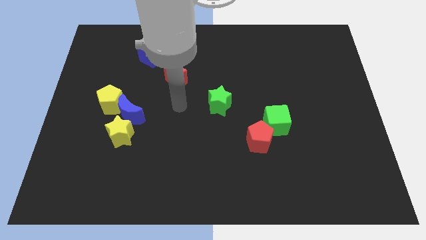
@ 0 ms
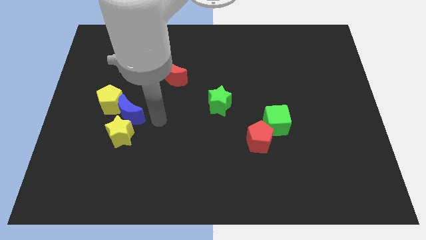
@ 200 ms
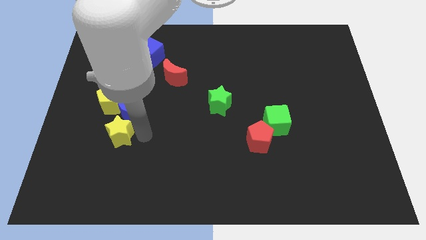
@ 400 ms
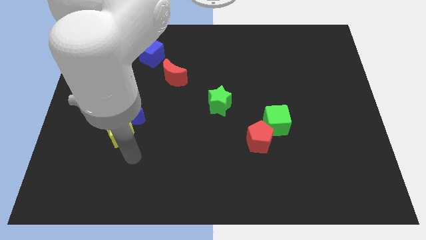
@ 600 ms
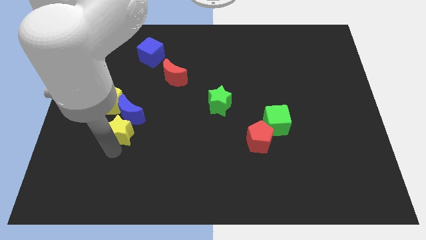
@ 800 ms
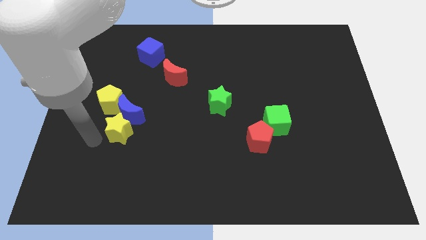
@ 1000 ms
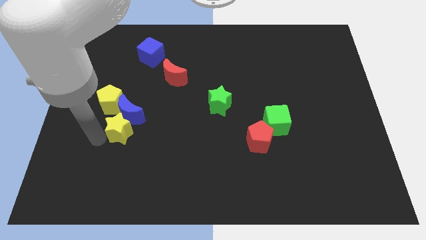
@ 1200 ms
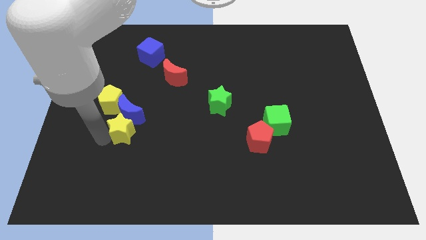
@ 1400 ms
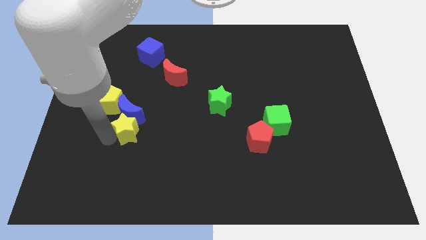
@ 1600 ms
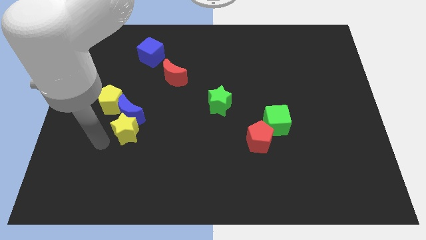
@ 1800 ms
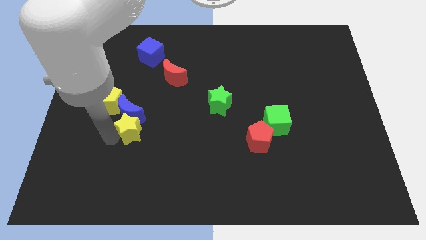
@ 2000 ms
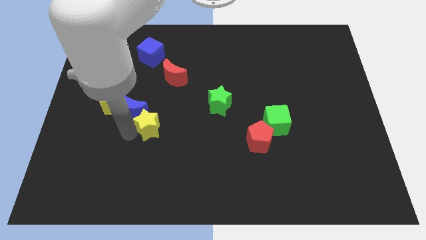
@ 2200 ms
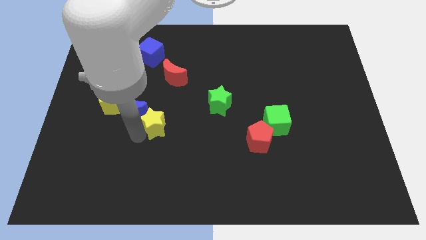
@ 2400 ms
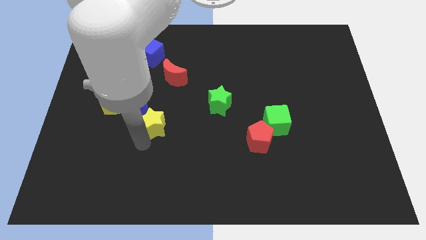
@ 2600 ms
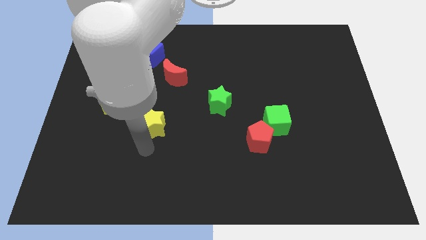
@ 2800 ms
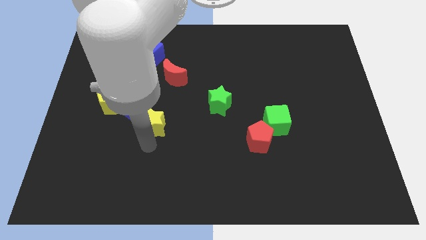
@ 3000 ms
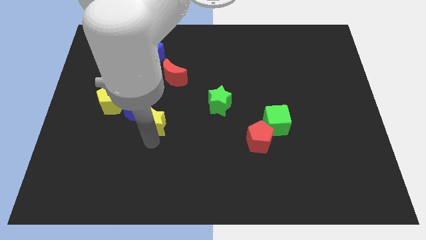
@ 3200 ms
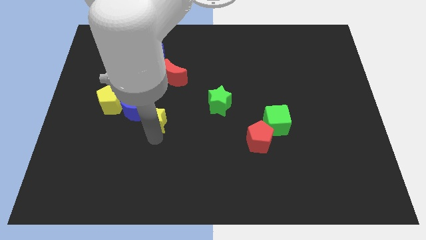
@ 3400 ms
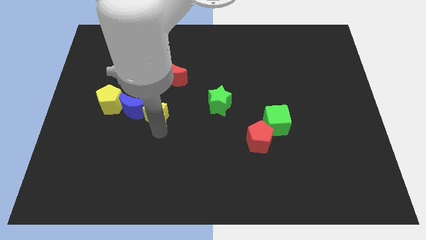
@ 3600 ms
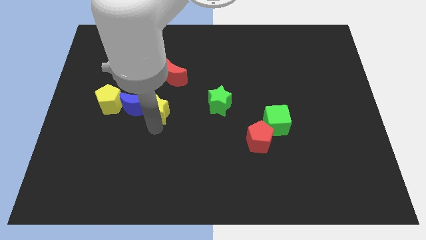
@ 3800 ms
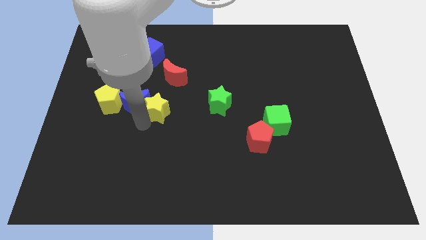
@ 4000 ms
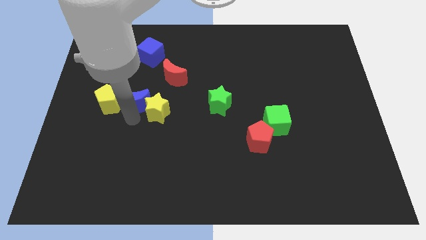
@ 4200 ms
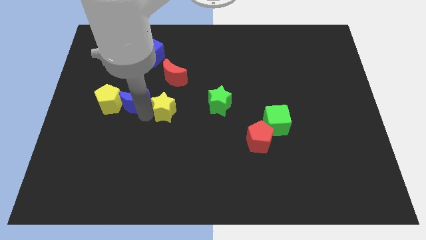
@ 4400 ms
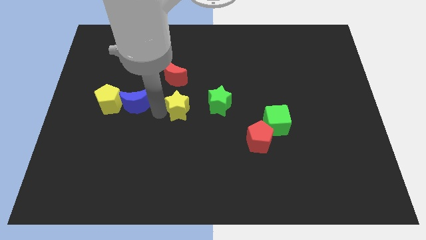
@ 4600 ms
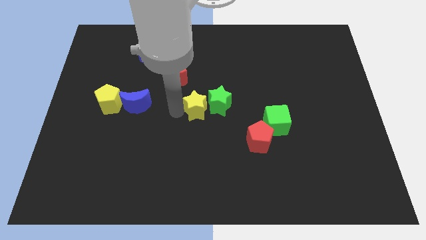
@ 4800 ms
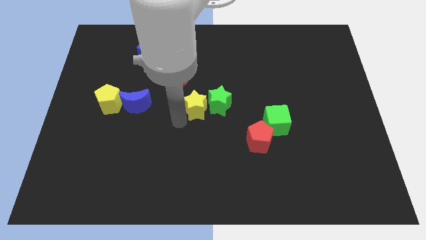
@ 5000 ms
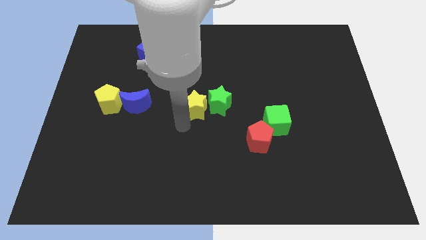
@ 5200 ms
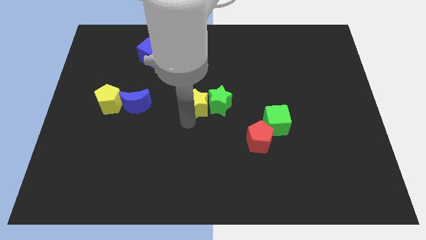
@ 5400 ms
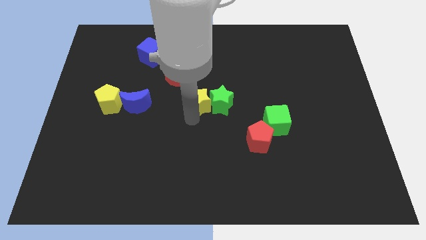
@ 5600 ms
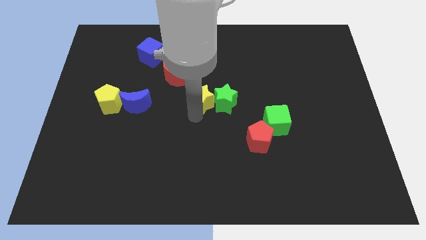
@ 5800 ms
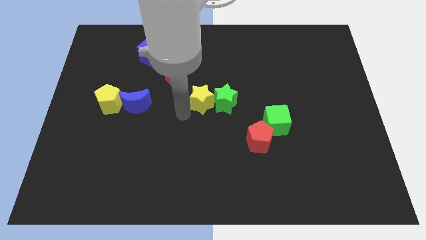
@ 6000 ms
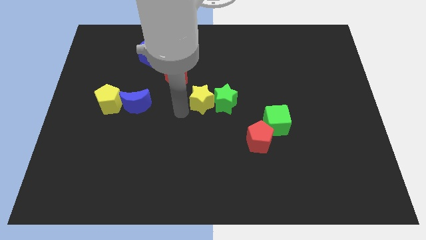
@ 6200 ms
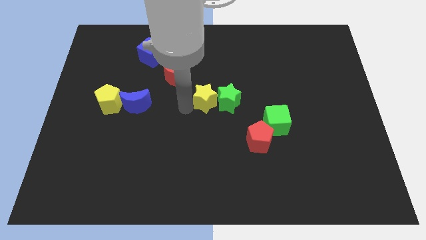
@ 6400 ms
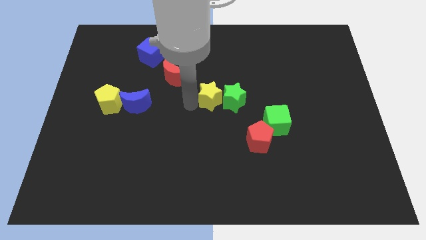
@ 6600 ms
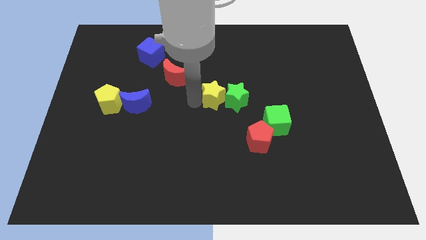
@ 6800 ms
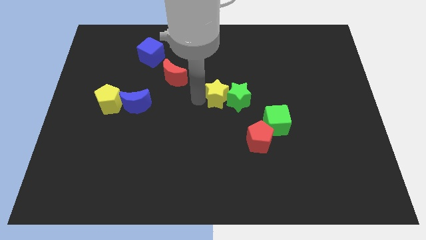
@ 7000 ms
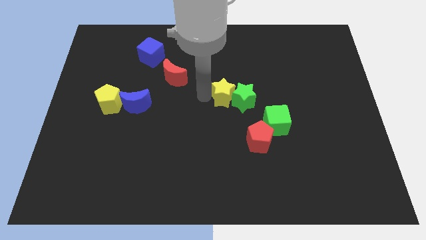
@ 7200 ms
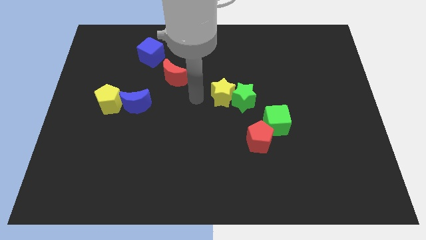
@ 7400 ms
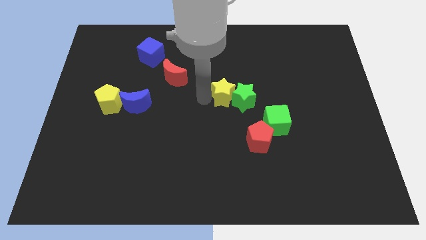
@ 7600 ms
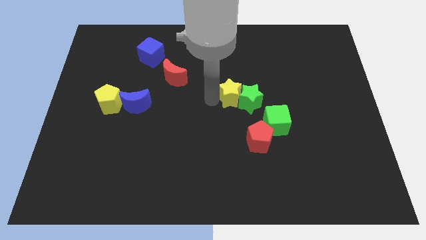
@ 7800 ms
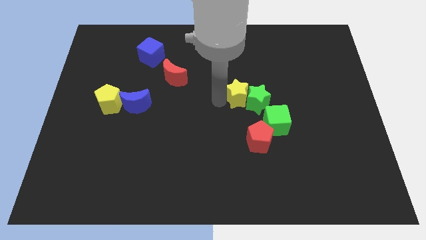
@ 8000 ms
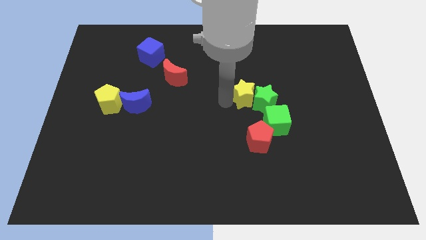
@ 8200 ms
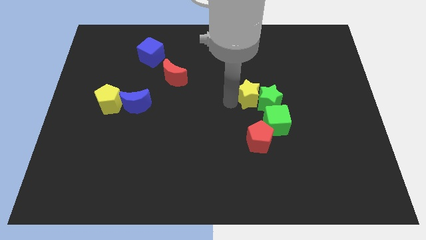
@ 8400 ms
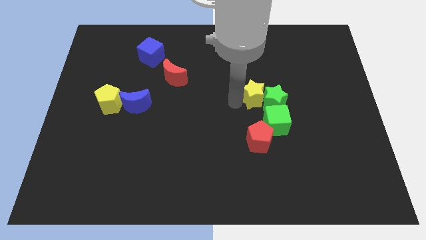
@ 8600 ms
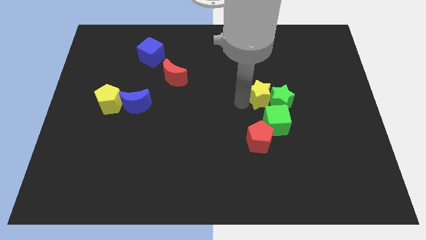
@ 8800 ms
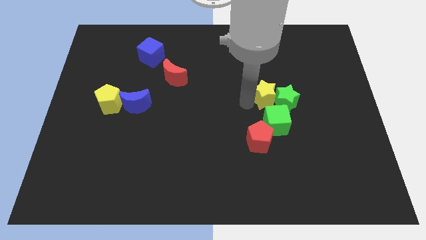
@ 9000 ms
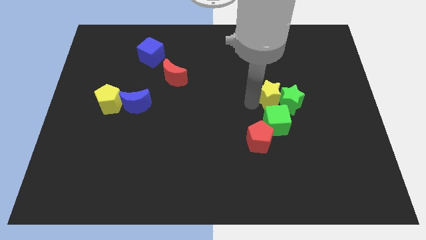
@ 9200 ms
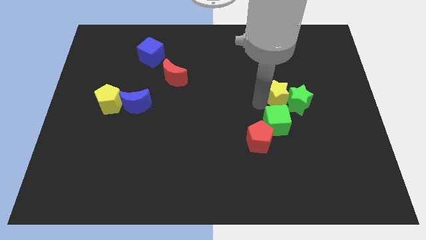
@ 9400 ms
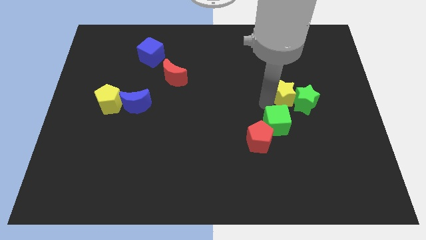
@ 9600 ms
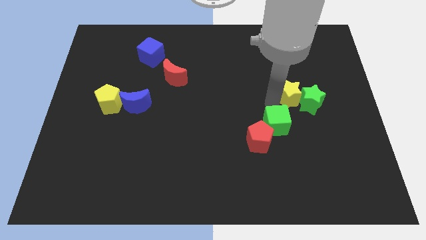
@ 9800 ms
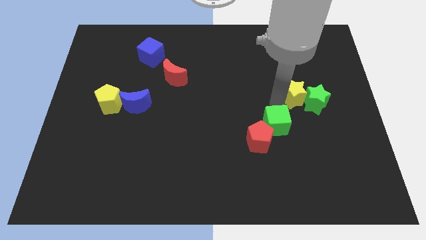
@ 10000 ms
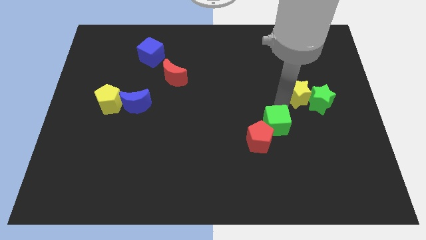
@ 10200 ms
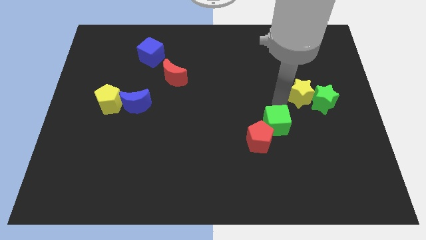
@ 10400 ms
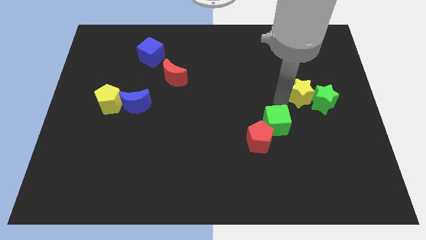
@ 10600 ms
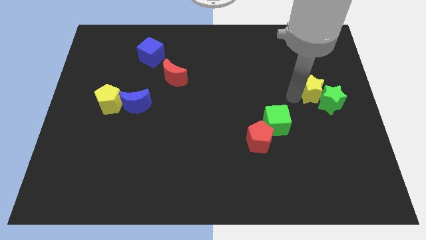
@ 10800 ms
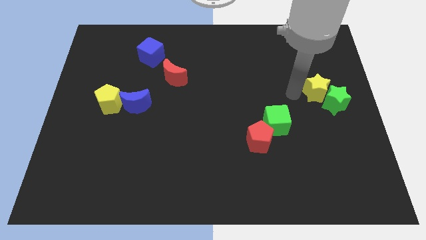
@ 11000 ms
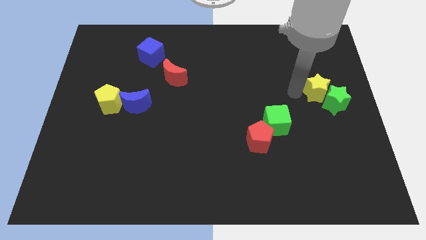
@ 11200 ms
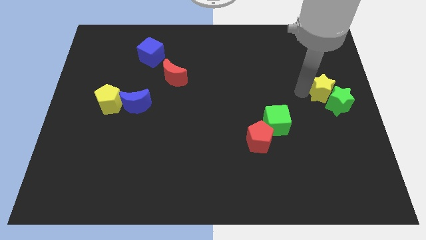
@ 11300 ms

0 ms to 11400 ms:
move the yellow star to the right side of the board

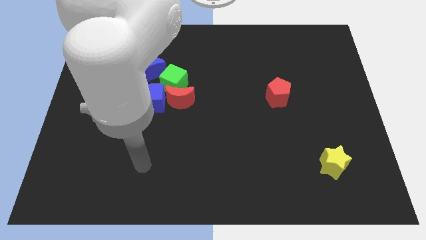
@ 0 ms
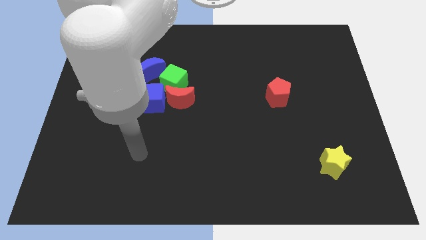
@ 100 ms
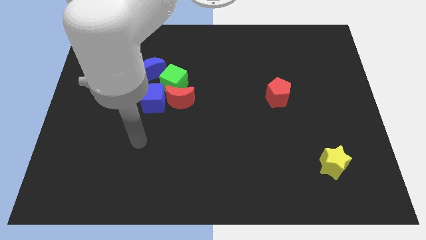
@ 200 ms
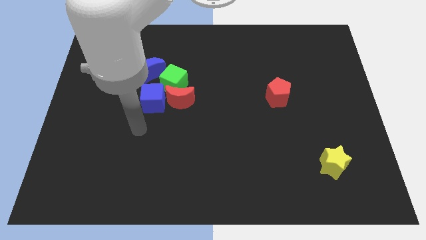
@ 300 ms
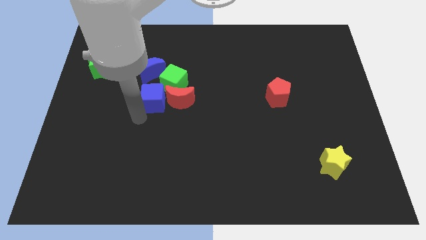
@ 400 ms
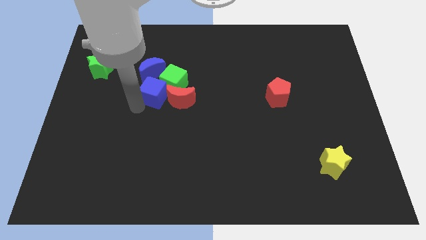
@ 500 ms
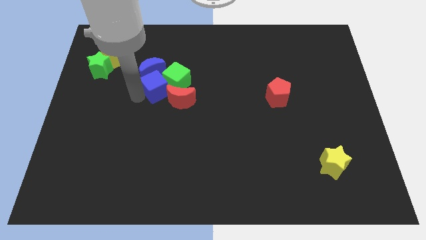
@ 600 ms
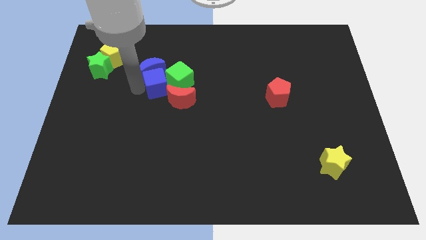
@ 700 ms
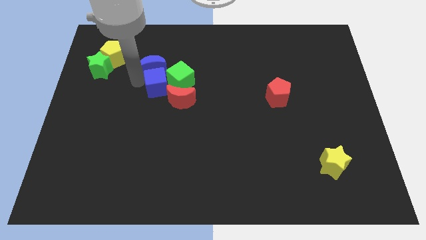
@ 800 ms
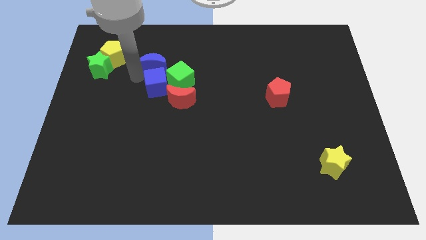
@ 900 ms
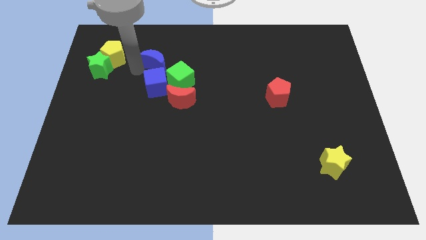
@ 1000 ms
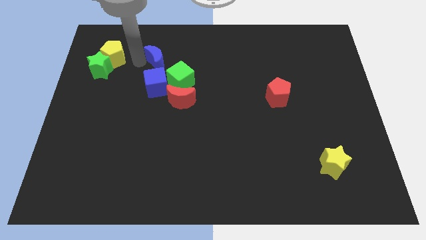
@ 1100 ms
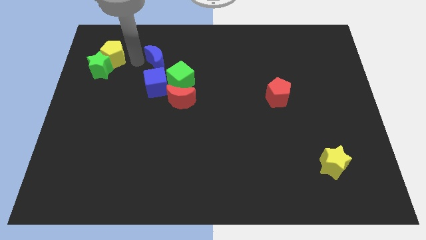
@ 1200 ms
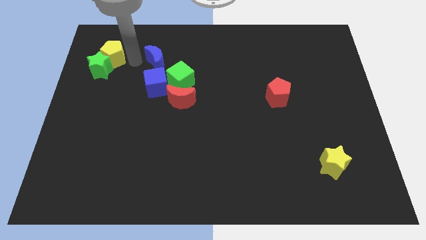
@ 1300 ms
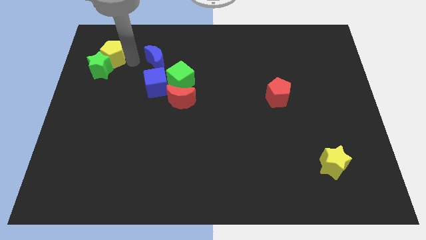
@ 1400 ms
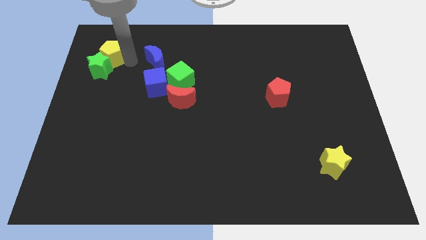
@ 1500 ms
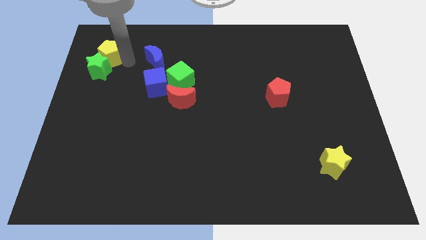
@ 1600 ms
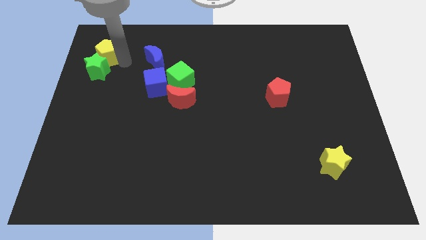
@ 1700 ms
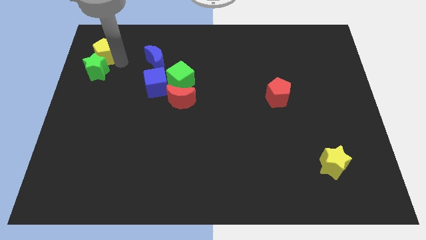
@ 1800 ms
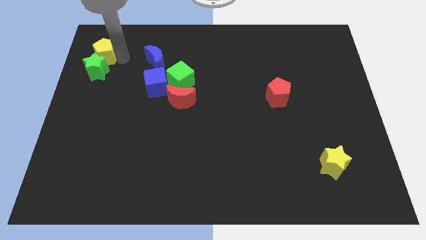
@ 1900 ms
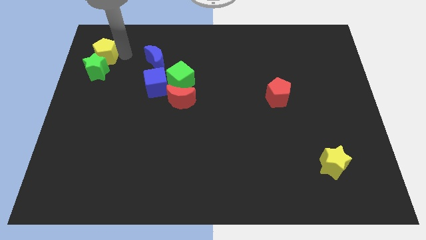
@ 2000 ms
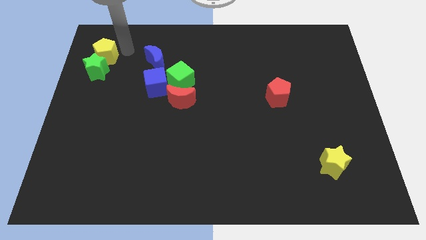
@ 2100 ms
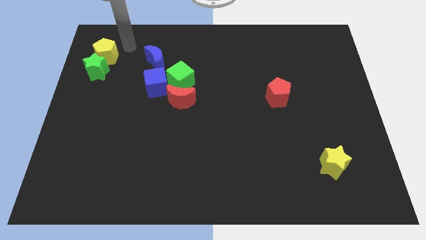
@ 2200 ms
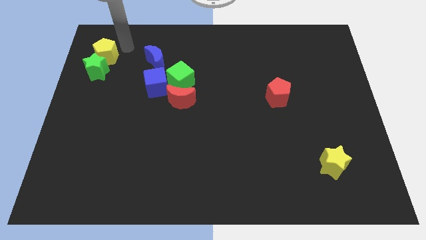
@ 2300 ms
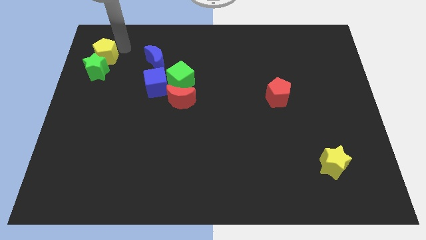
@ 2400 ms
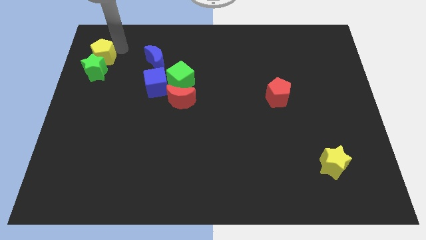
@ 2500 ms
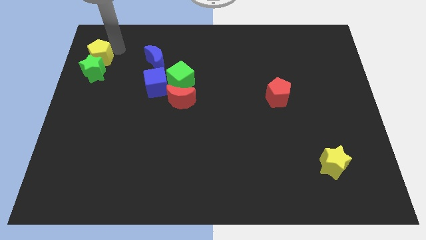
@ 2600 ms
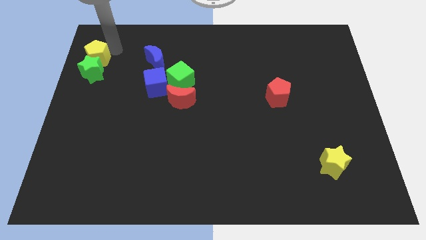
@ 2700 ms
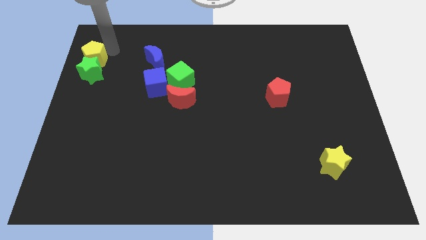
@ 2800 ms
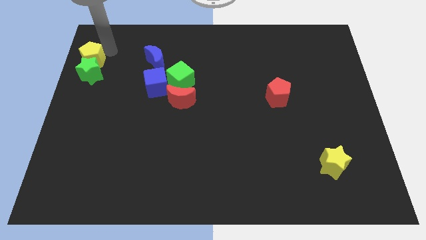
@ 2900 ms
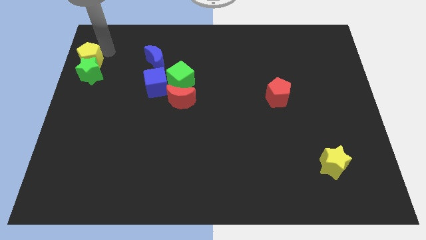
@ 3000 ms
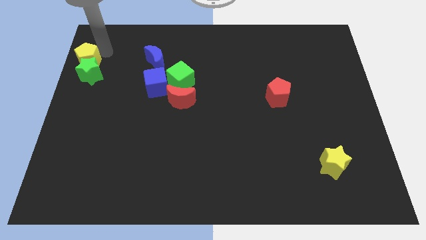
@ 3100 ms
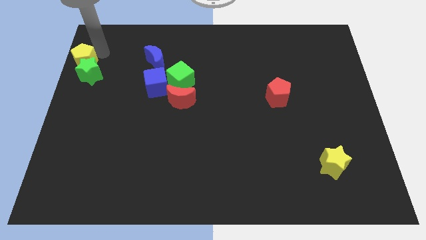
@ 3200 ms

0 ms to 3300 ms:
push the yellow pentagon to the center left
